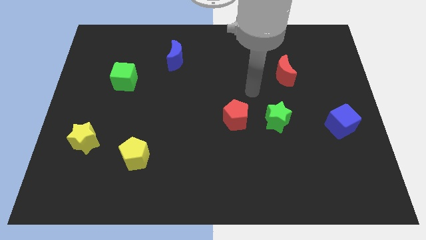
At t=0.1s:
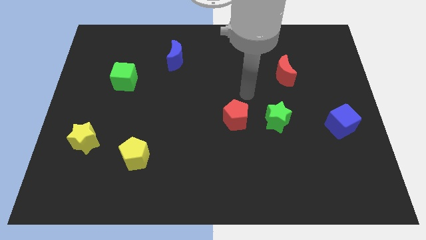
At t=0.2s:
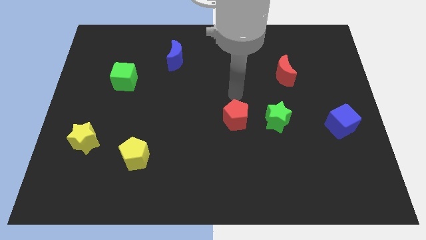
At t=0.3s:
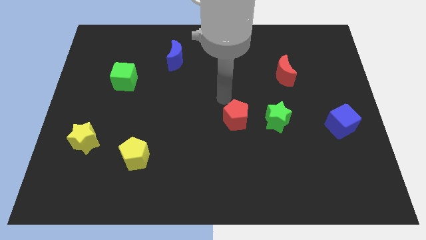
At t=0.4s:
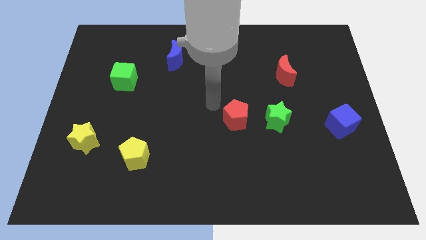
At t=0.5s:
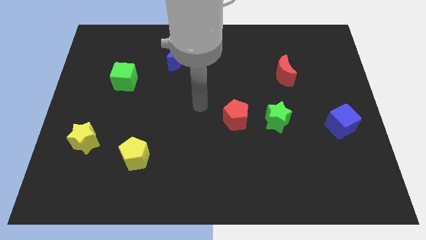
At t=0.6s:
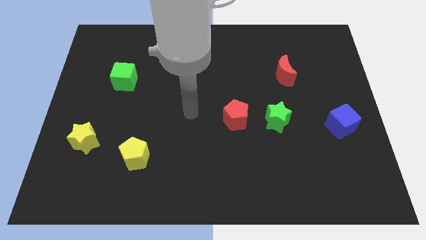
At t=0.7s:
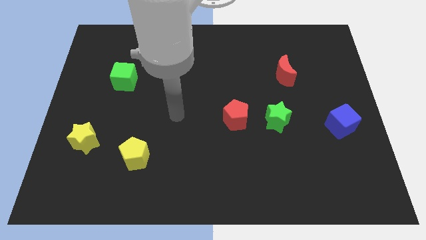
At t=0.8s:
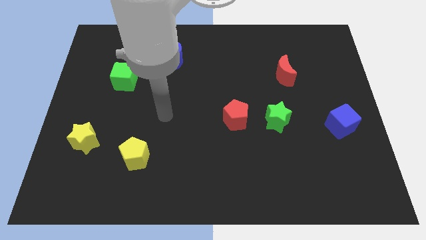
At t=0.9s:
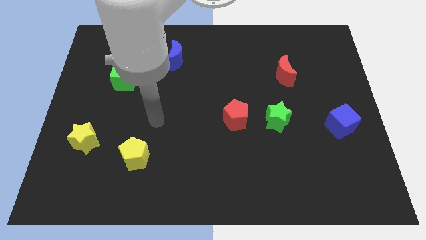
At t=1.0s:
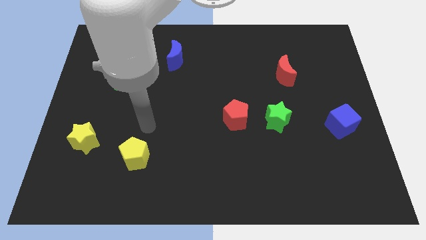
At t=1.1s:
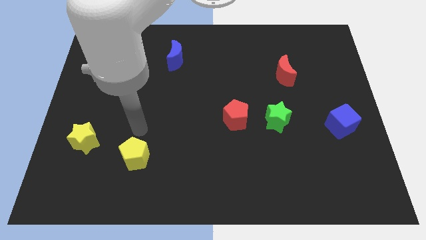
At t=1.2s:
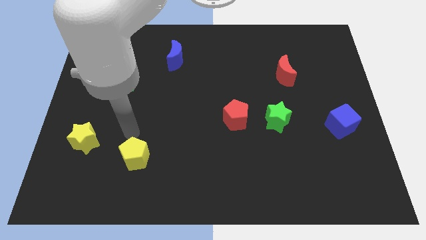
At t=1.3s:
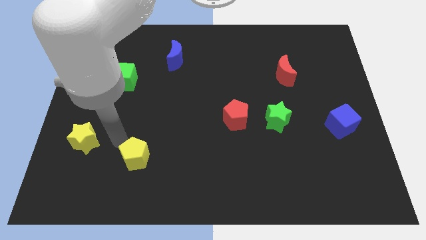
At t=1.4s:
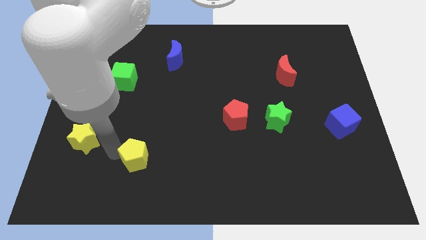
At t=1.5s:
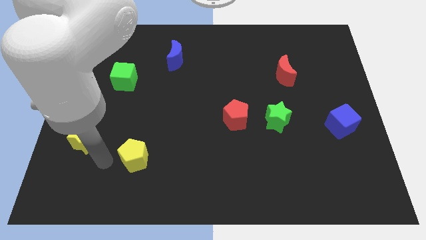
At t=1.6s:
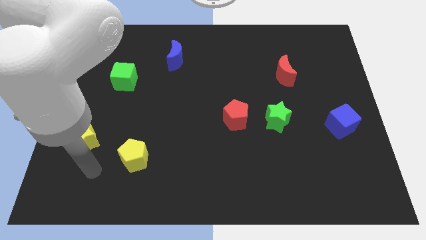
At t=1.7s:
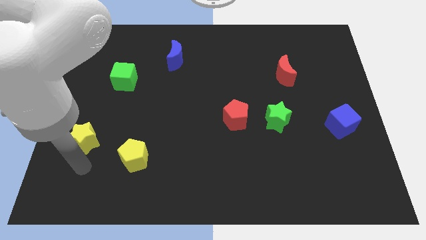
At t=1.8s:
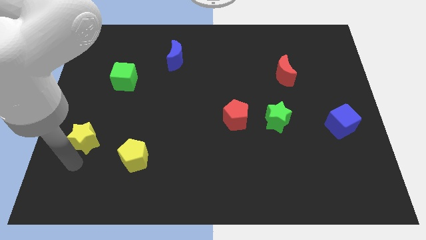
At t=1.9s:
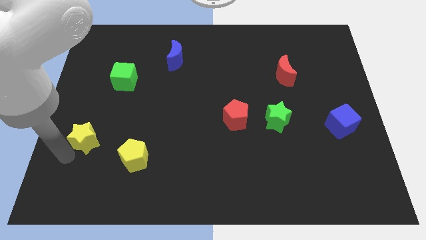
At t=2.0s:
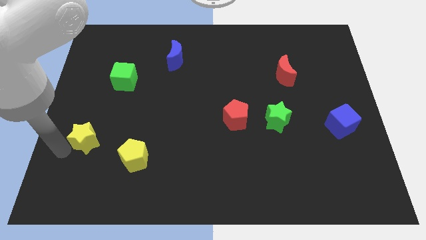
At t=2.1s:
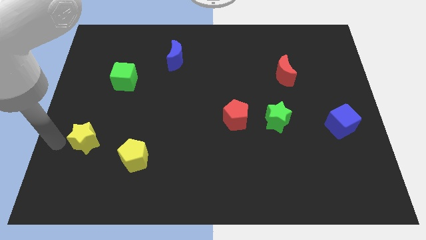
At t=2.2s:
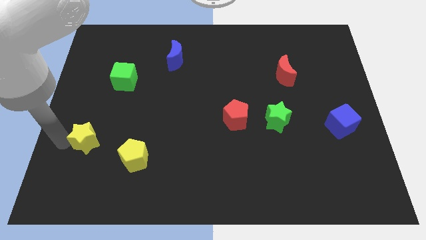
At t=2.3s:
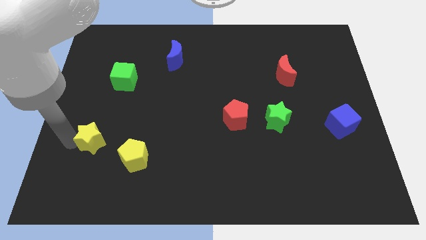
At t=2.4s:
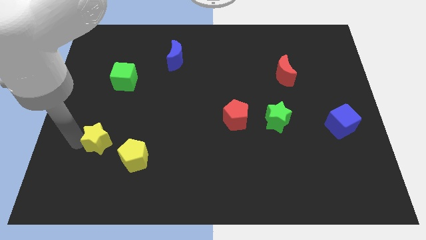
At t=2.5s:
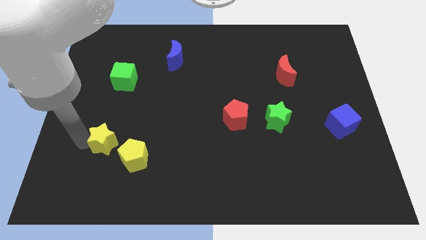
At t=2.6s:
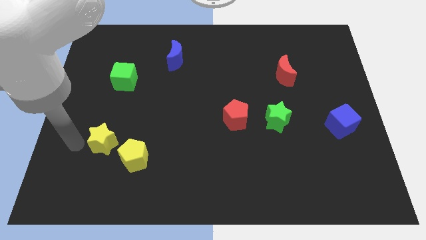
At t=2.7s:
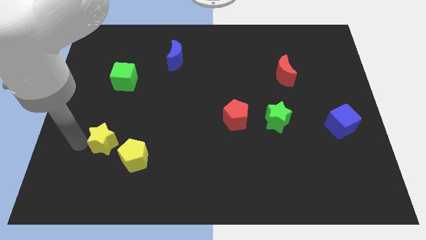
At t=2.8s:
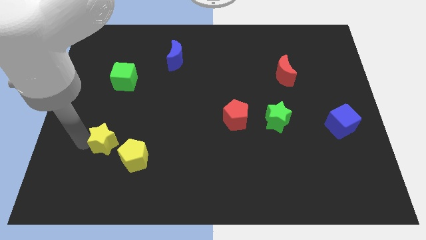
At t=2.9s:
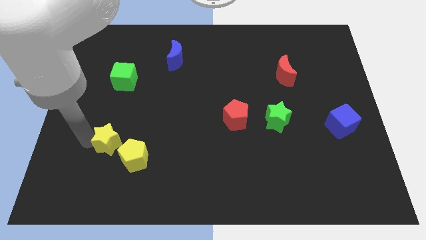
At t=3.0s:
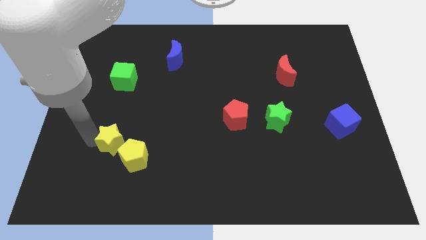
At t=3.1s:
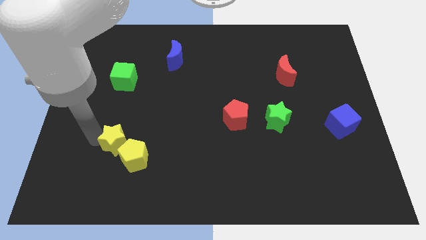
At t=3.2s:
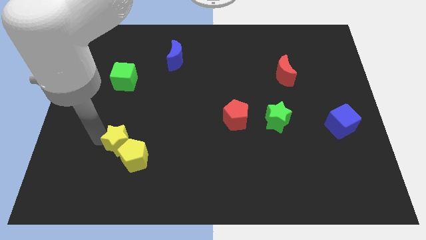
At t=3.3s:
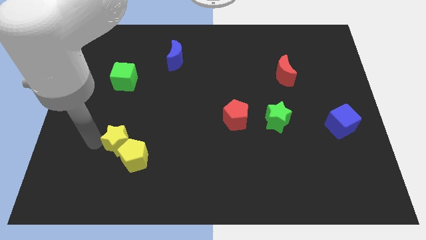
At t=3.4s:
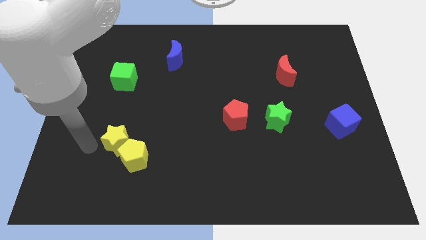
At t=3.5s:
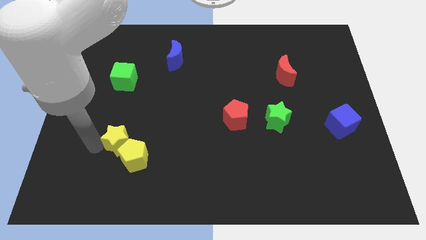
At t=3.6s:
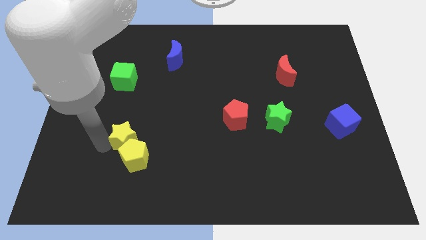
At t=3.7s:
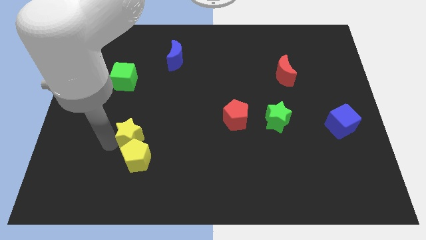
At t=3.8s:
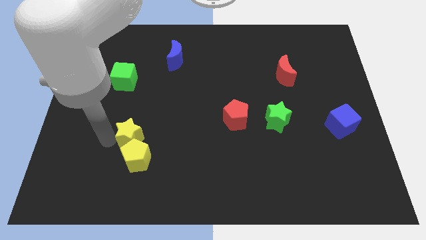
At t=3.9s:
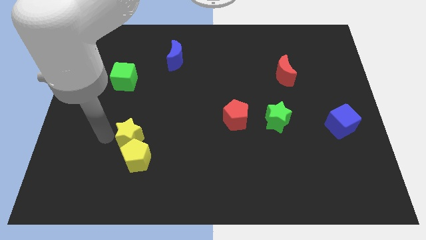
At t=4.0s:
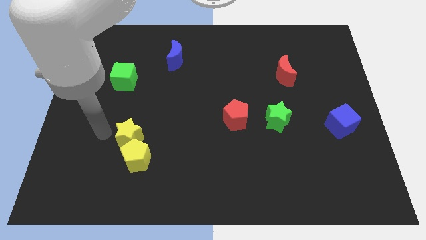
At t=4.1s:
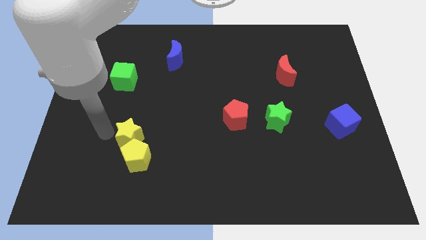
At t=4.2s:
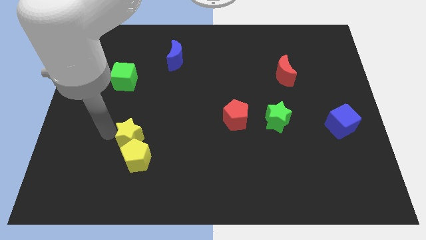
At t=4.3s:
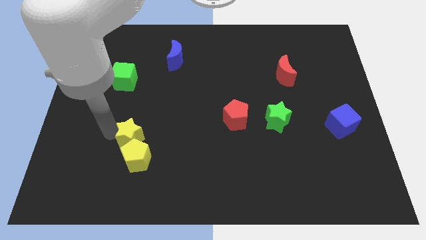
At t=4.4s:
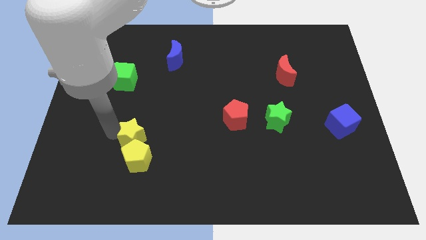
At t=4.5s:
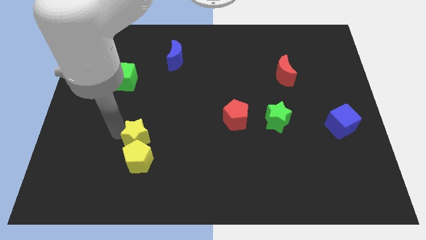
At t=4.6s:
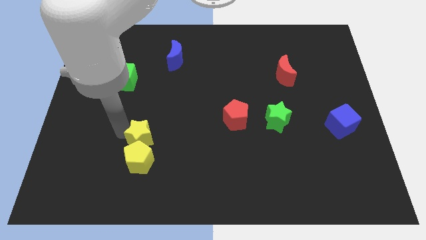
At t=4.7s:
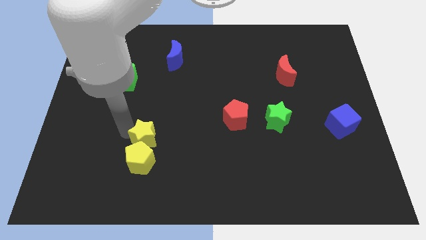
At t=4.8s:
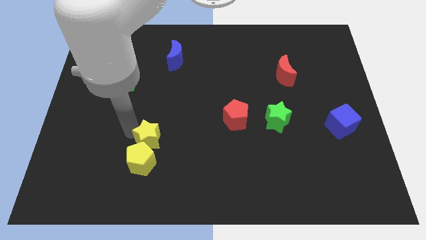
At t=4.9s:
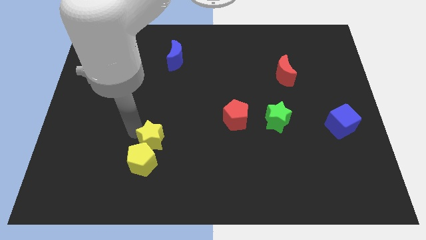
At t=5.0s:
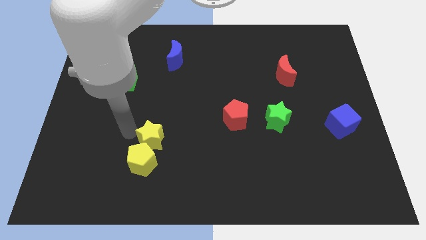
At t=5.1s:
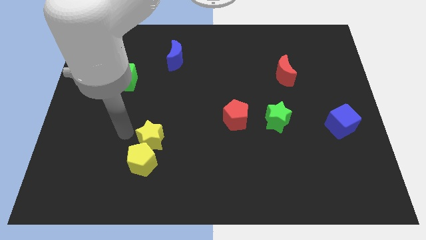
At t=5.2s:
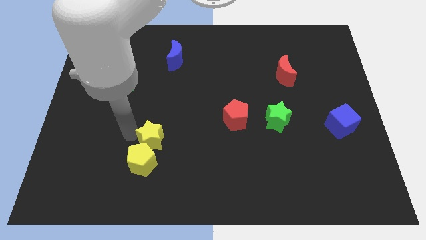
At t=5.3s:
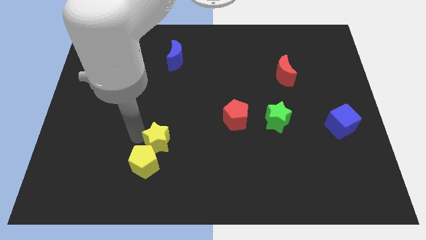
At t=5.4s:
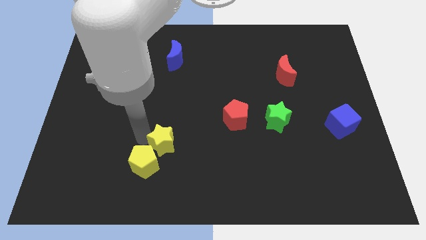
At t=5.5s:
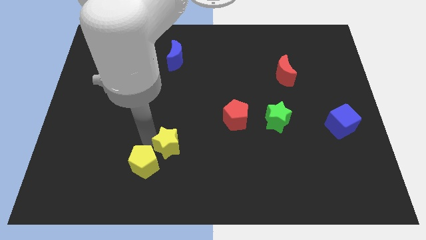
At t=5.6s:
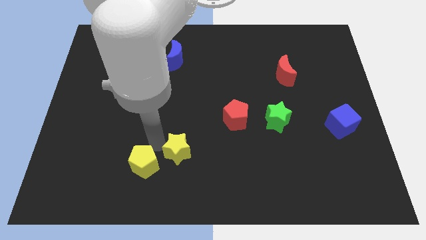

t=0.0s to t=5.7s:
push the yellow star right

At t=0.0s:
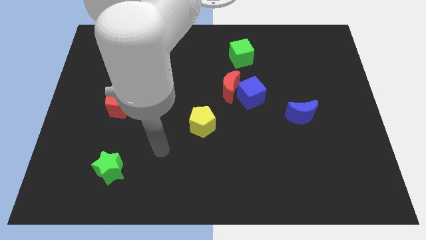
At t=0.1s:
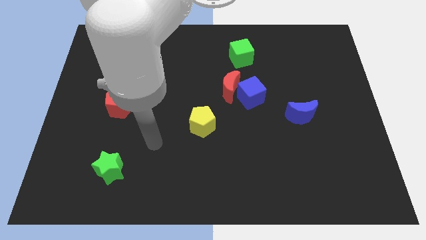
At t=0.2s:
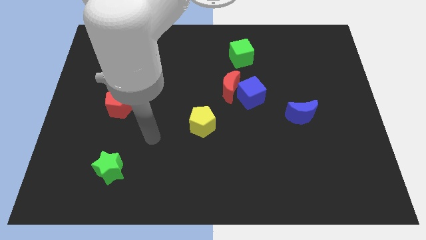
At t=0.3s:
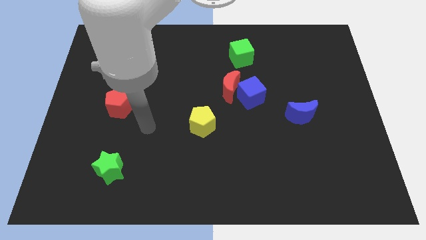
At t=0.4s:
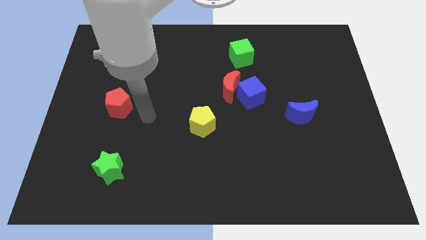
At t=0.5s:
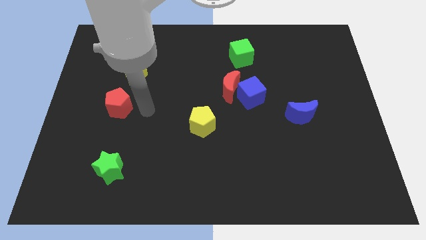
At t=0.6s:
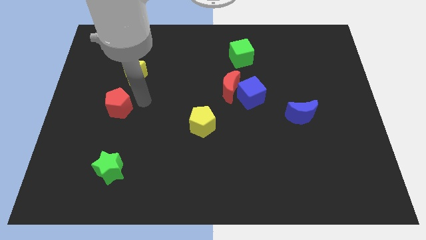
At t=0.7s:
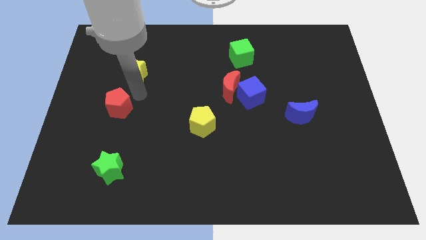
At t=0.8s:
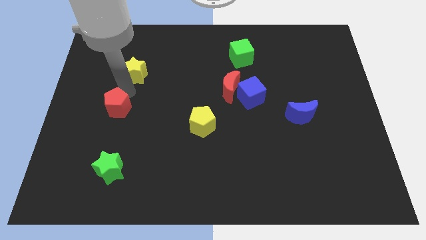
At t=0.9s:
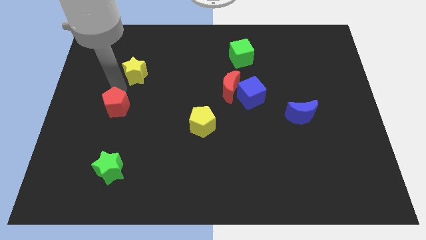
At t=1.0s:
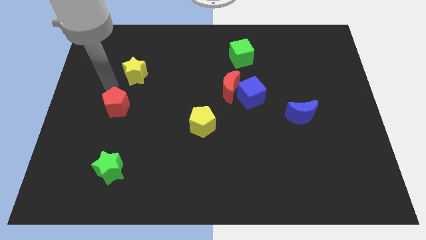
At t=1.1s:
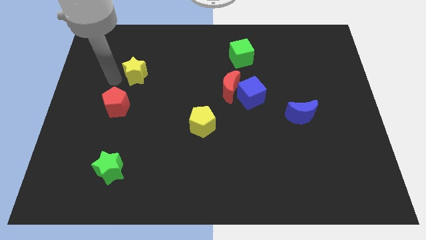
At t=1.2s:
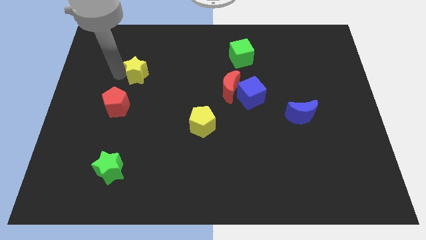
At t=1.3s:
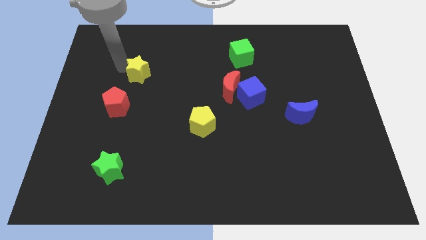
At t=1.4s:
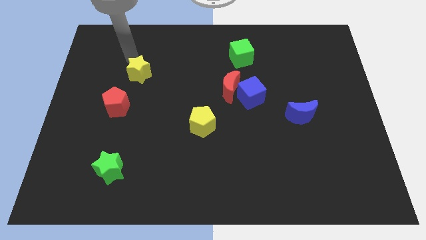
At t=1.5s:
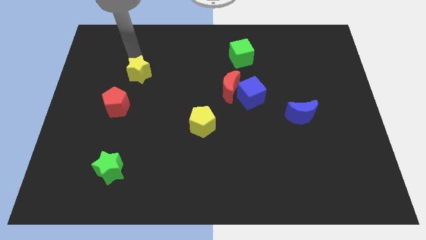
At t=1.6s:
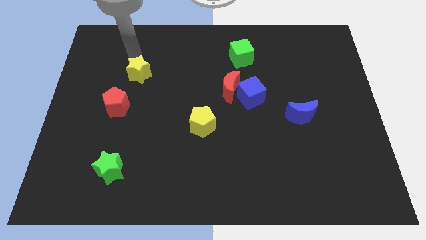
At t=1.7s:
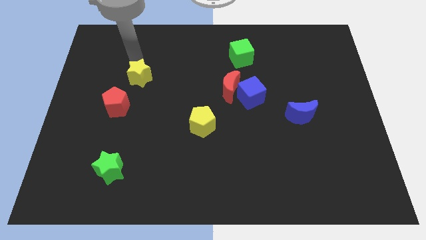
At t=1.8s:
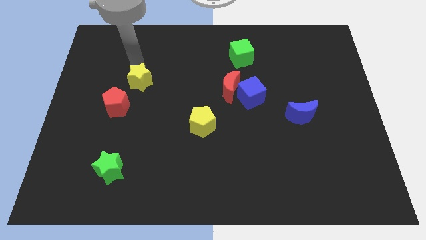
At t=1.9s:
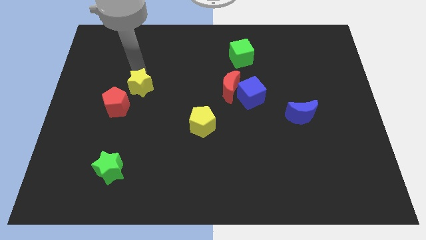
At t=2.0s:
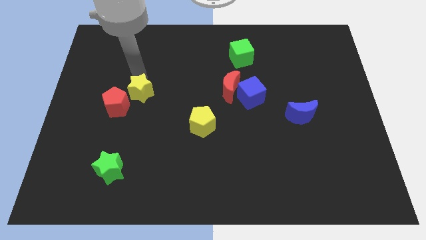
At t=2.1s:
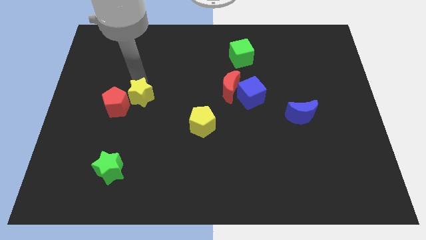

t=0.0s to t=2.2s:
push the yellow star downwards somewhat

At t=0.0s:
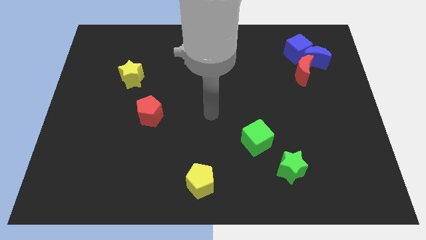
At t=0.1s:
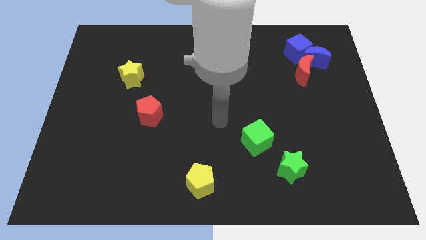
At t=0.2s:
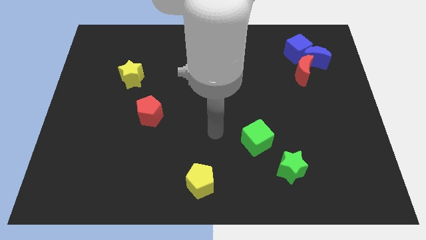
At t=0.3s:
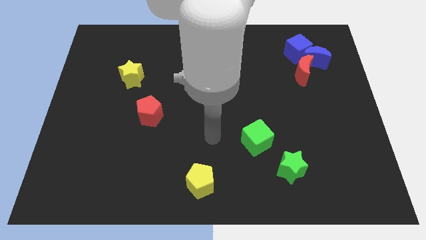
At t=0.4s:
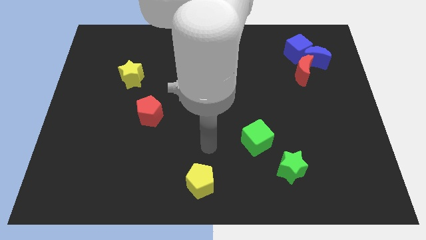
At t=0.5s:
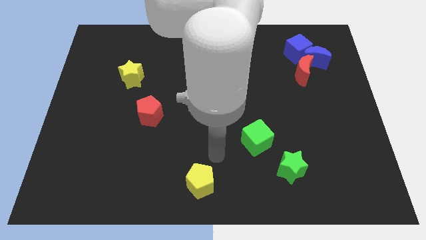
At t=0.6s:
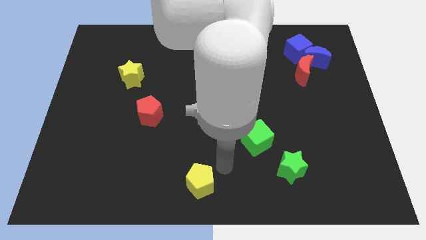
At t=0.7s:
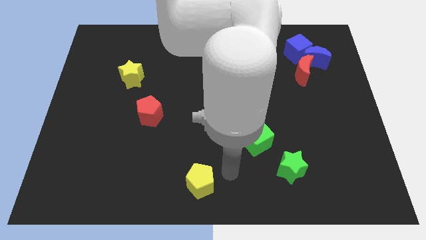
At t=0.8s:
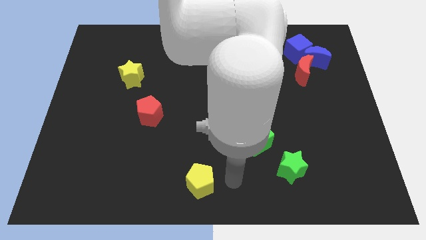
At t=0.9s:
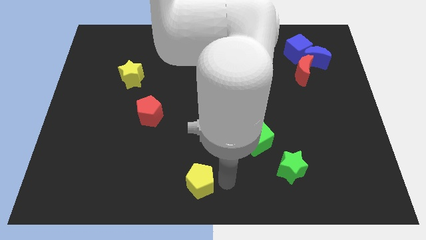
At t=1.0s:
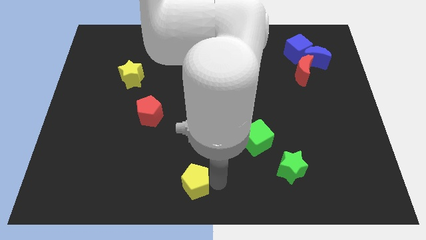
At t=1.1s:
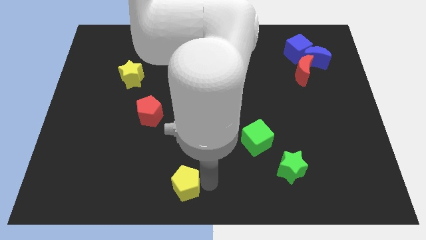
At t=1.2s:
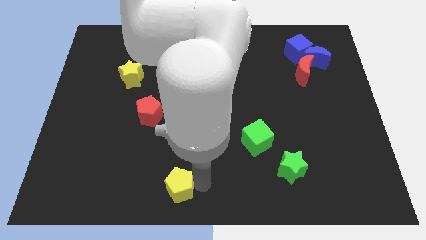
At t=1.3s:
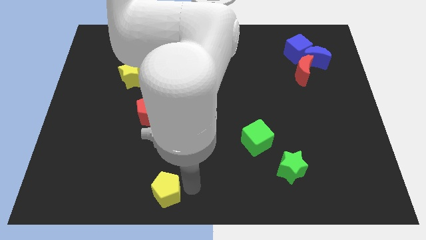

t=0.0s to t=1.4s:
slightly push the yellow pentagon left
